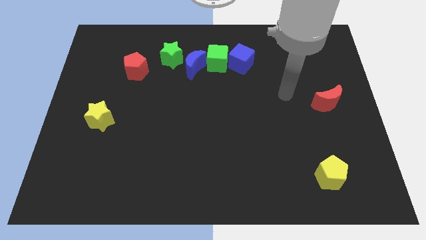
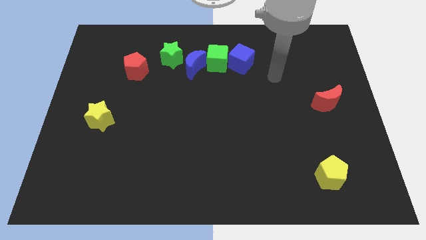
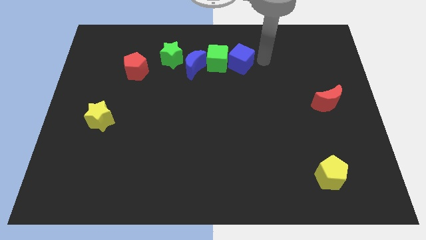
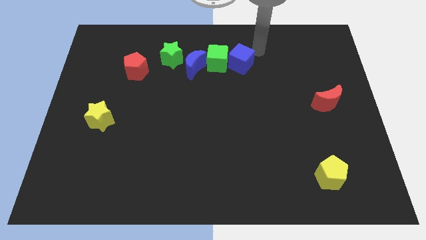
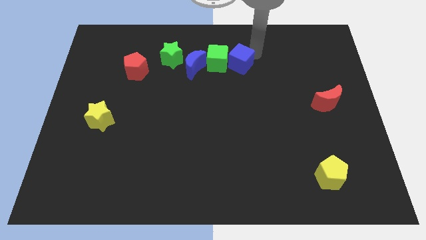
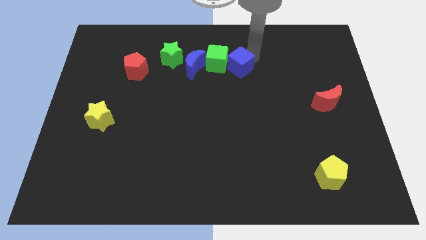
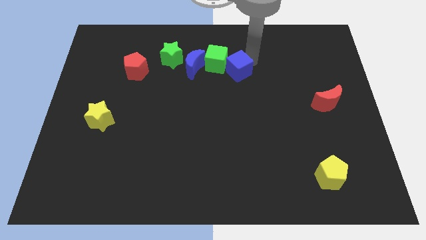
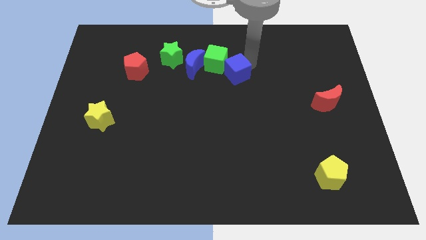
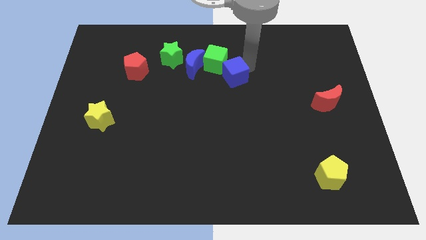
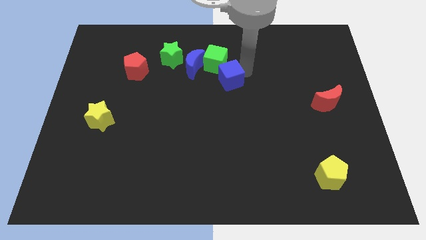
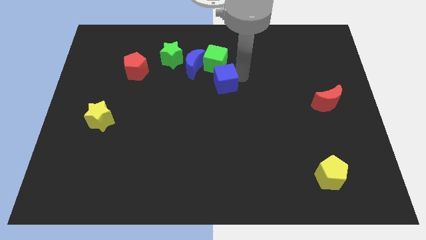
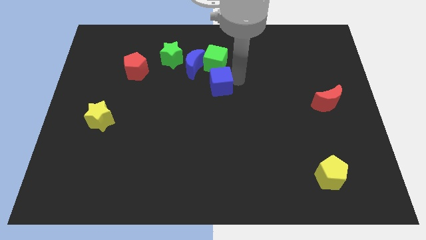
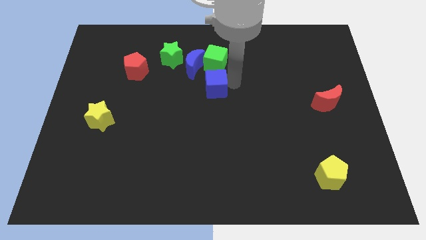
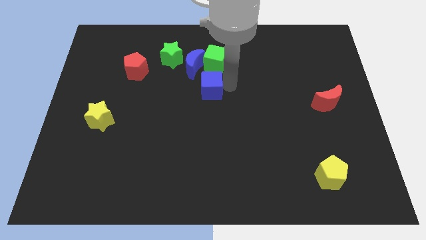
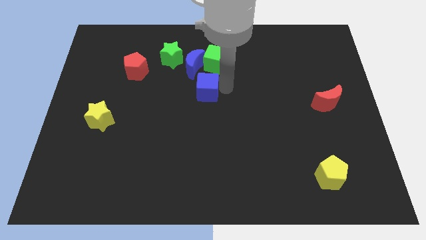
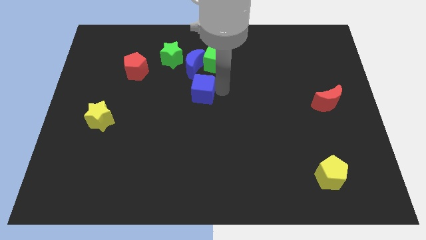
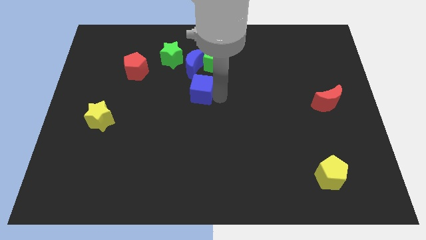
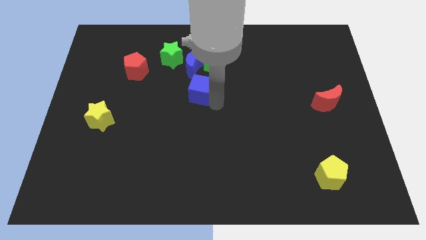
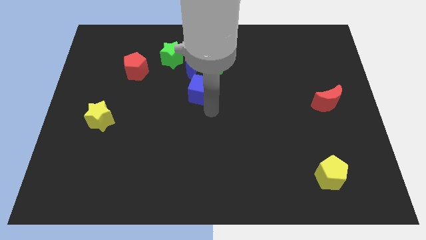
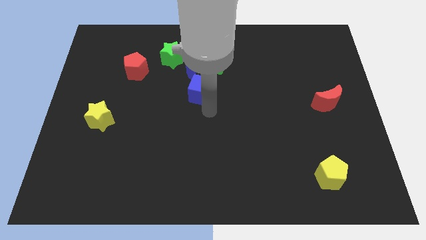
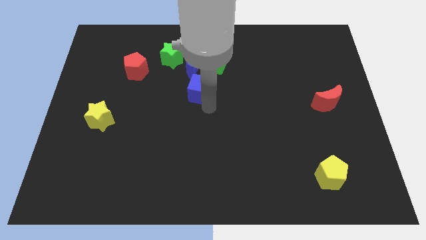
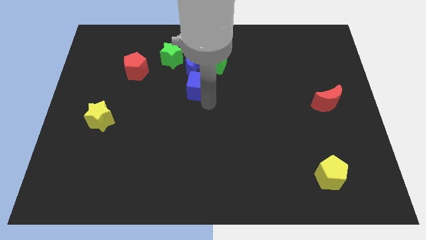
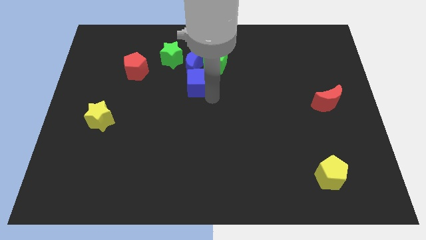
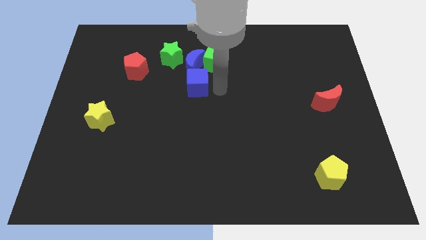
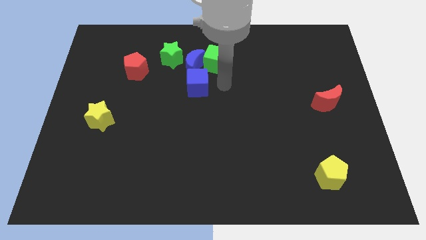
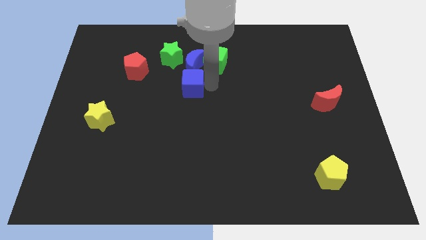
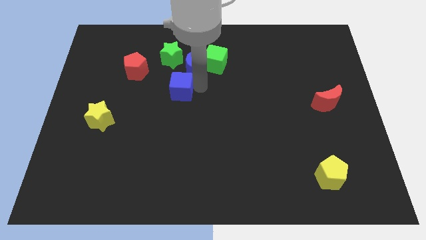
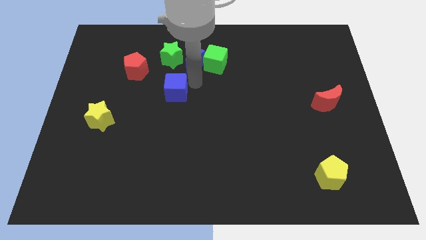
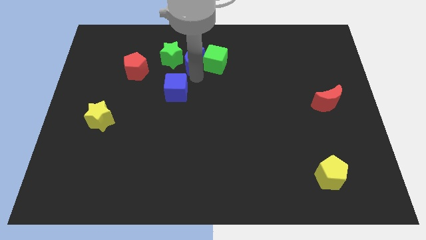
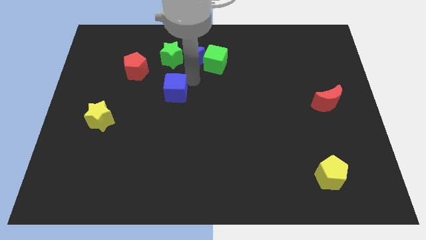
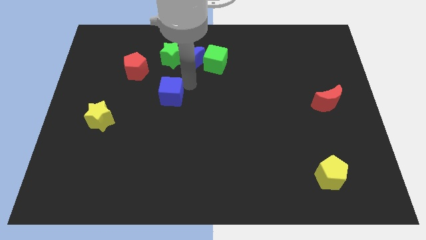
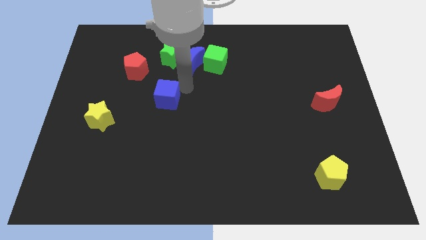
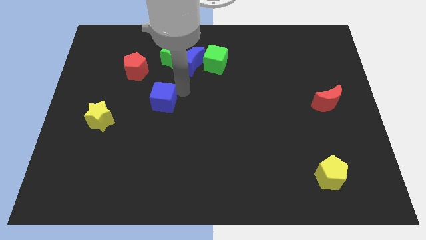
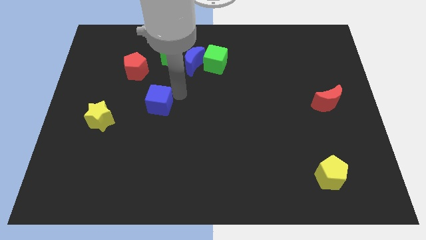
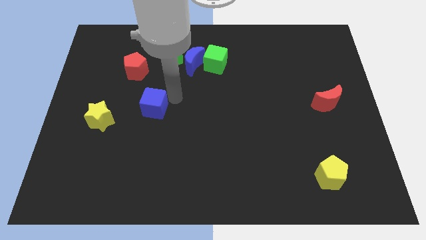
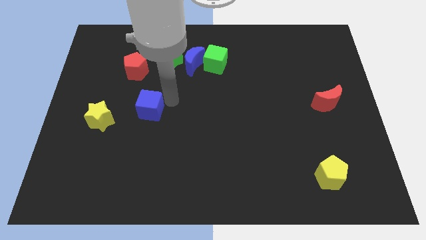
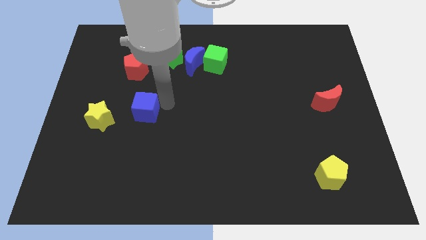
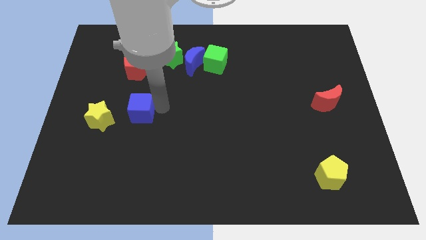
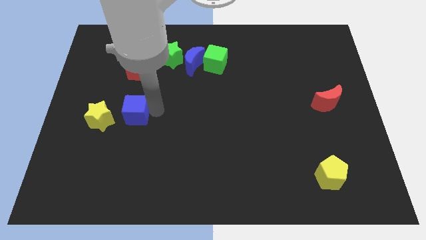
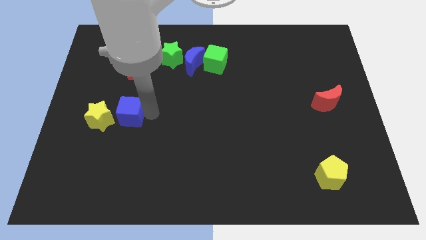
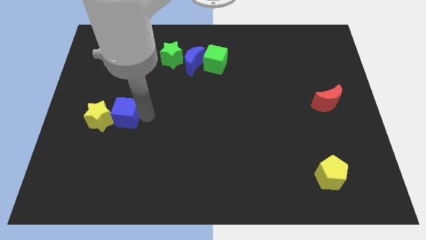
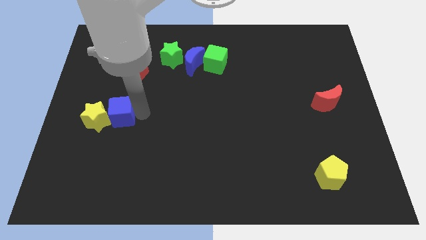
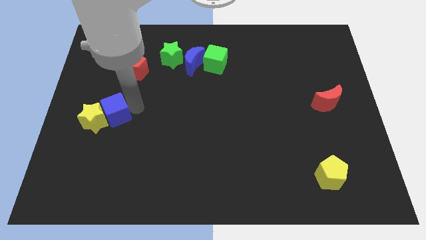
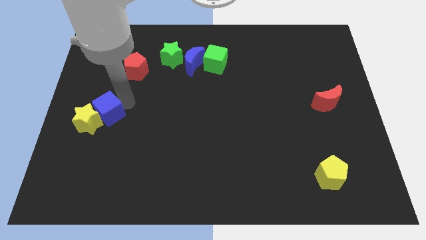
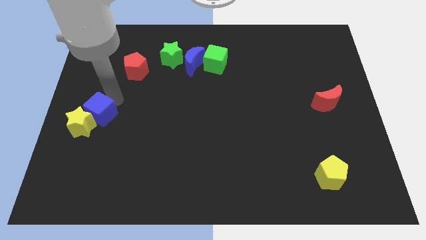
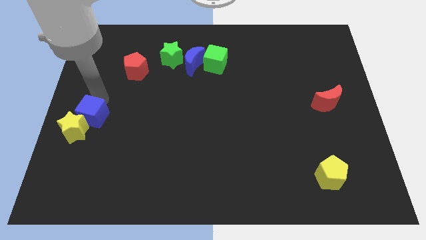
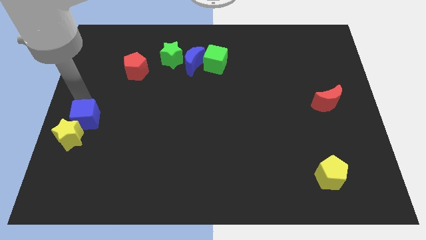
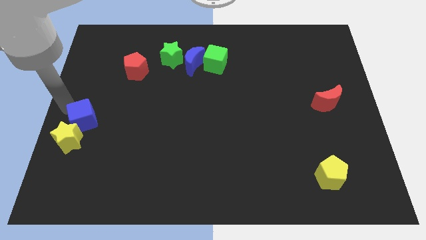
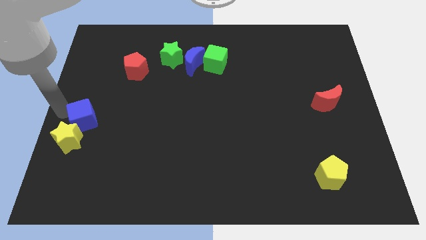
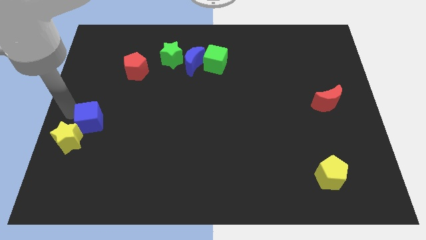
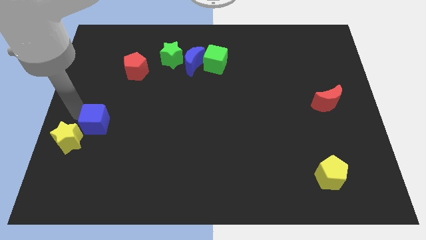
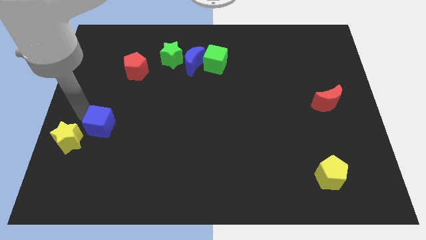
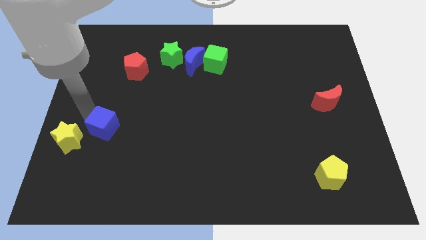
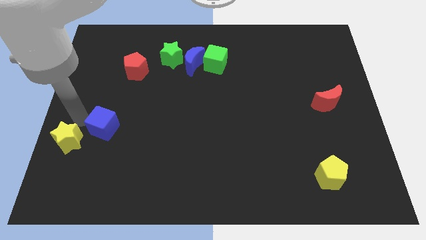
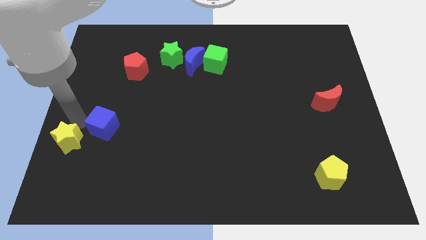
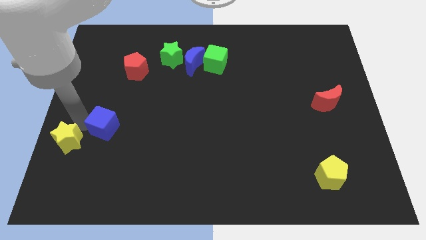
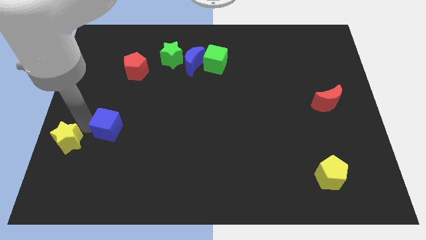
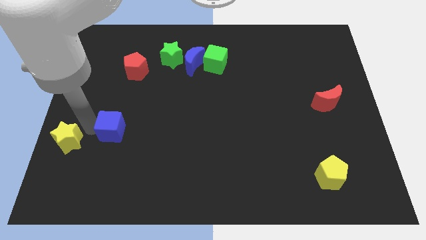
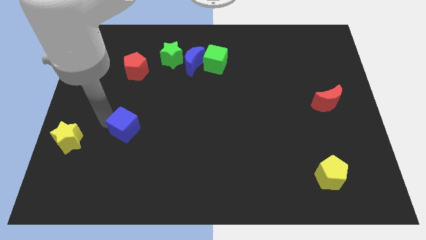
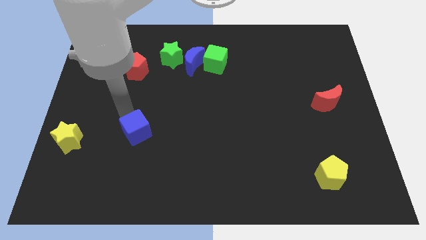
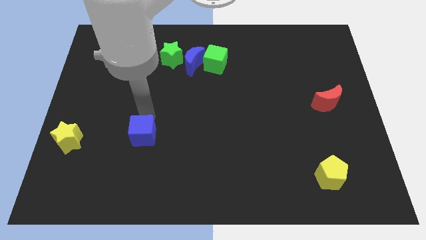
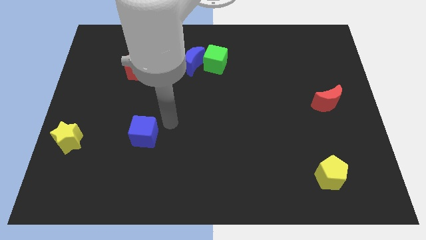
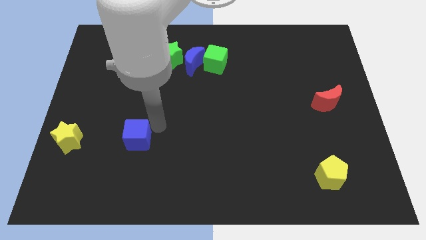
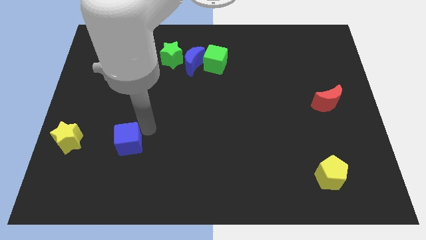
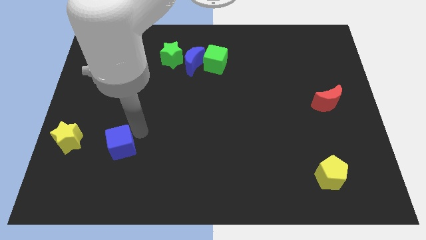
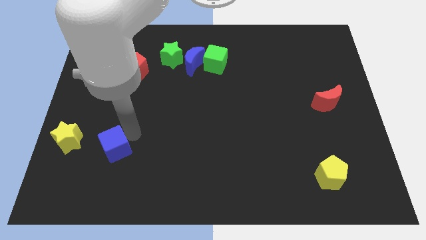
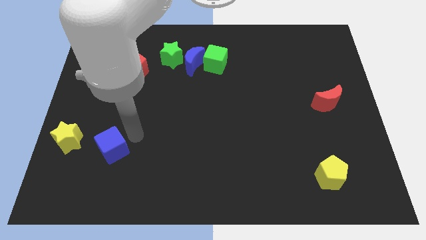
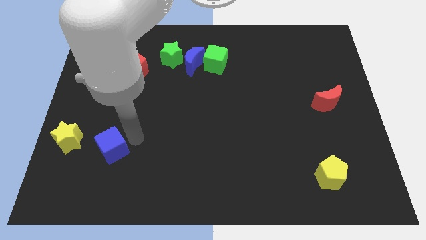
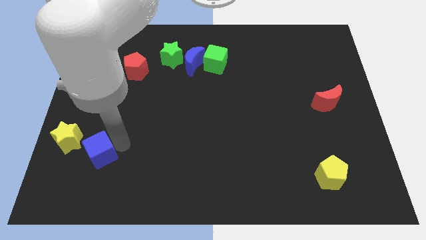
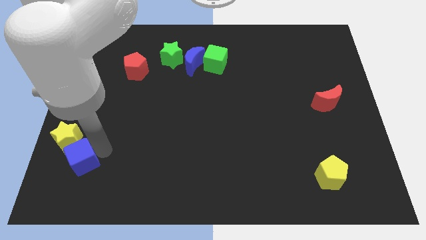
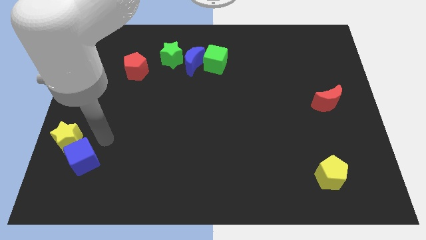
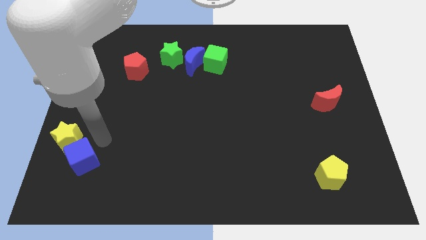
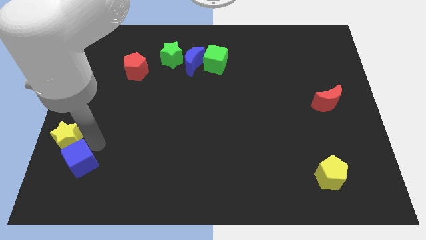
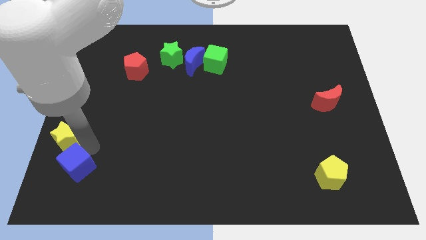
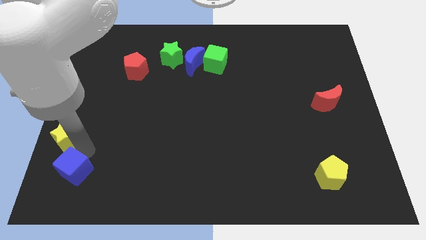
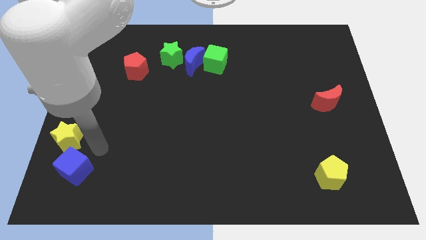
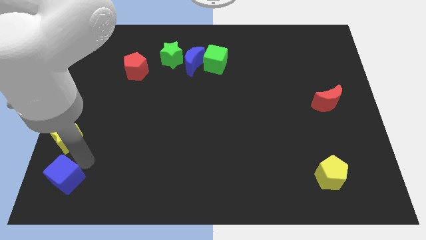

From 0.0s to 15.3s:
move the blue cube to the bottom left

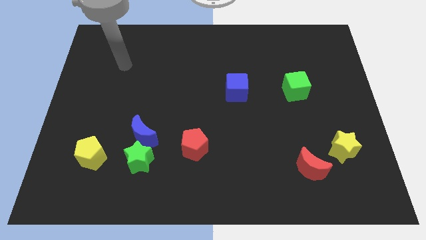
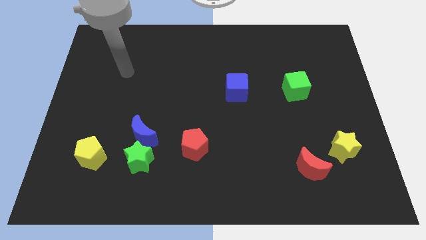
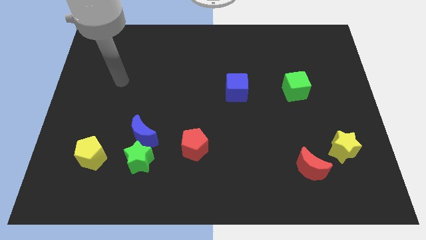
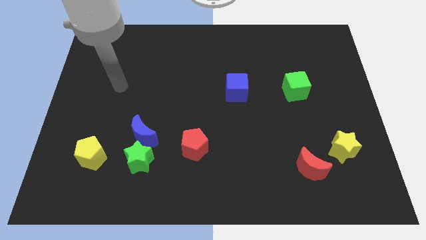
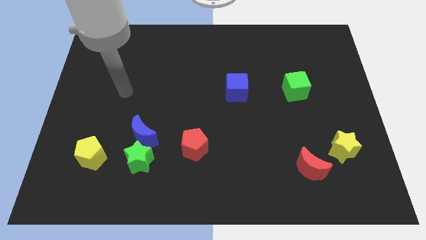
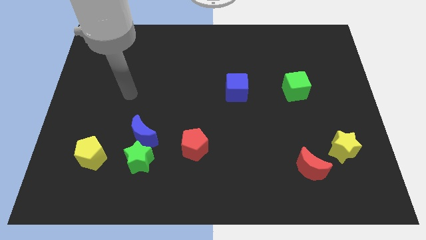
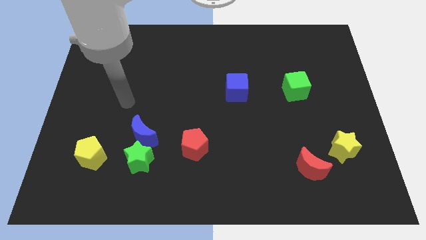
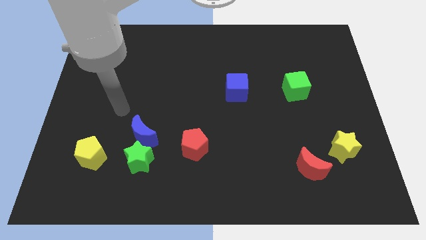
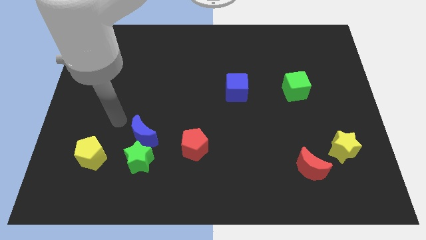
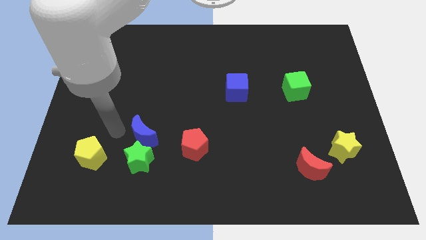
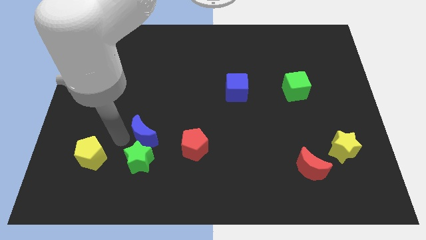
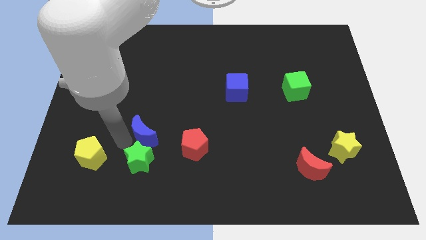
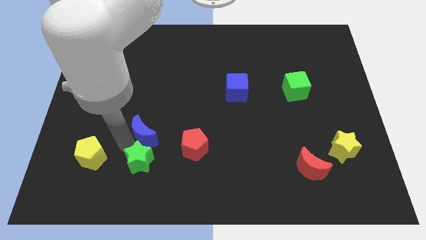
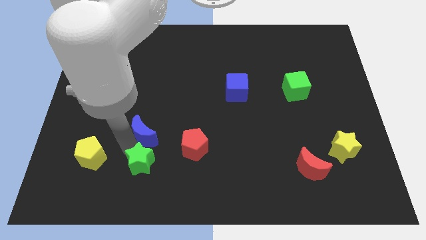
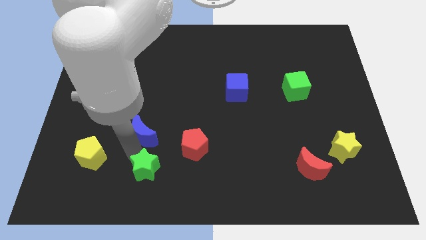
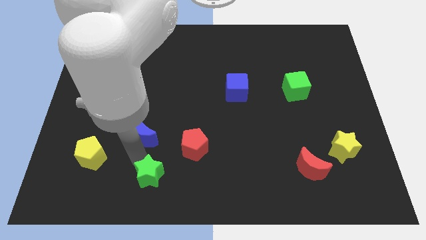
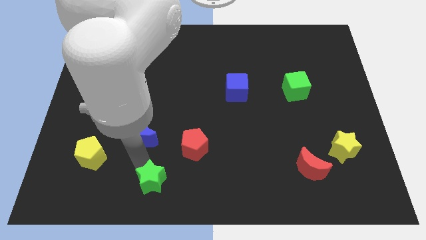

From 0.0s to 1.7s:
push the green star to the bottom side
